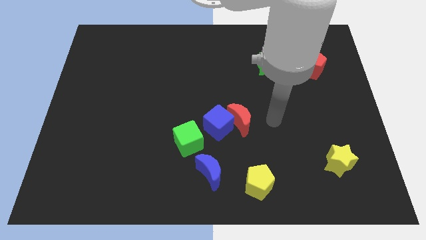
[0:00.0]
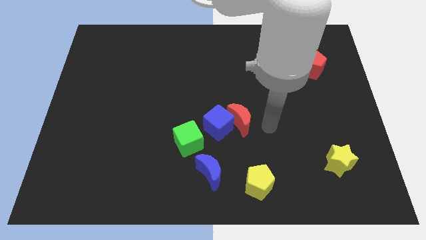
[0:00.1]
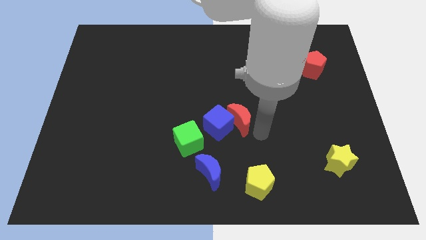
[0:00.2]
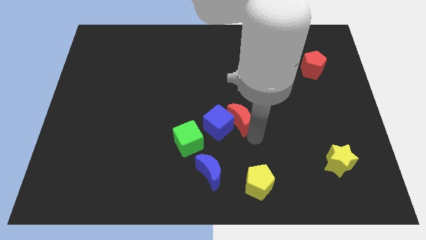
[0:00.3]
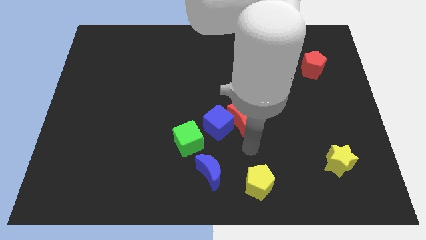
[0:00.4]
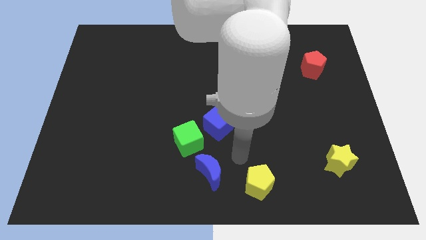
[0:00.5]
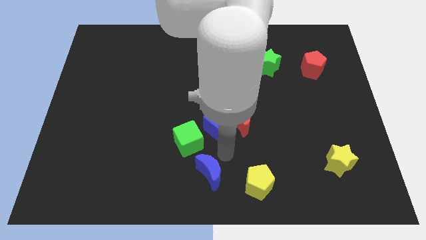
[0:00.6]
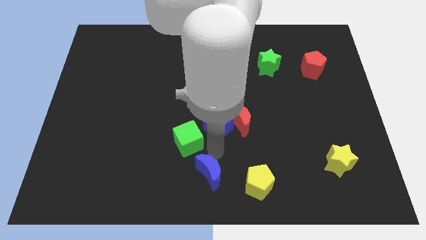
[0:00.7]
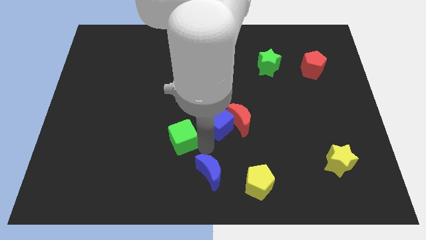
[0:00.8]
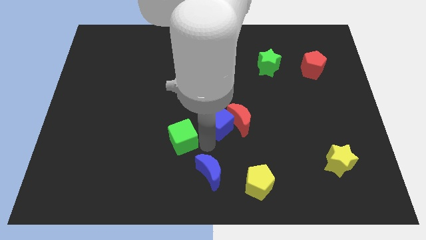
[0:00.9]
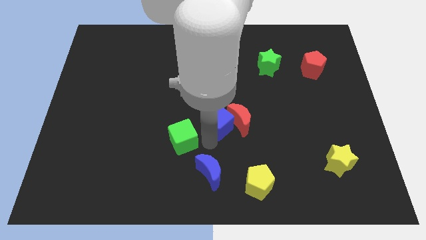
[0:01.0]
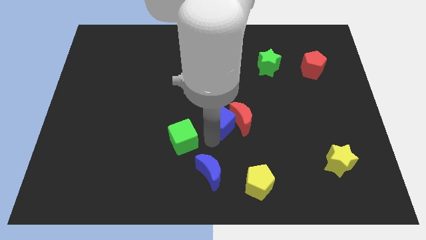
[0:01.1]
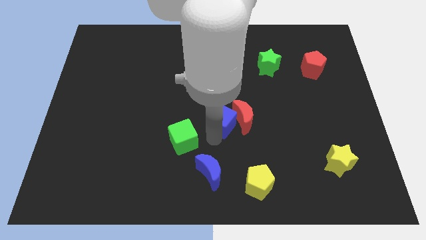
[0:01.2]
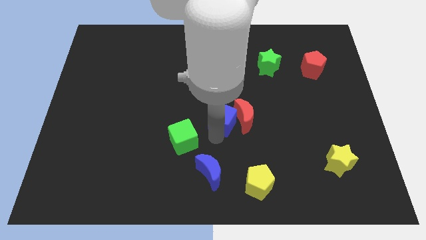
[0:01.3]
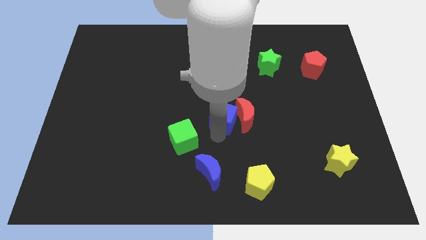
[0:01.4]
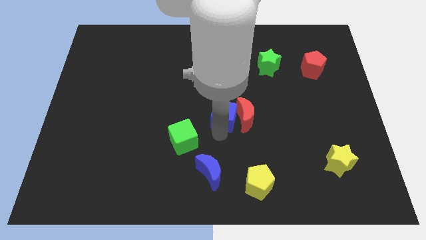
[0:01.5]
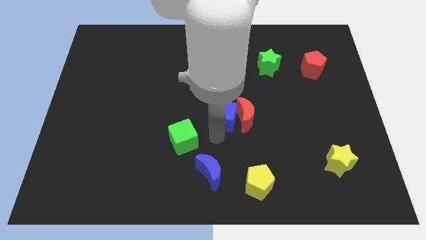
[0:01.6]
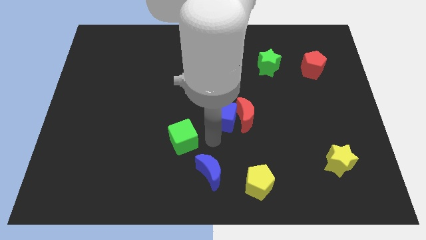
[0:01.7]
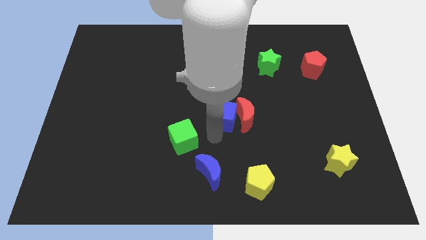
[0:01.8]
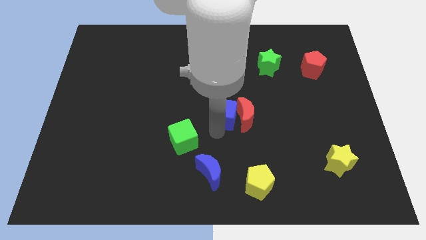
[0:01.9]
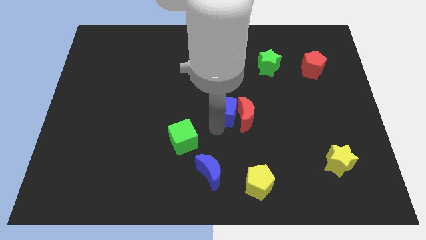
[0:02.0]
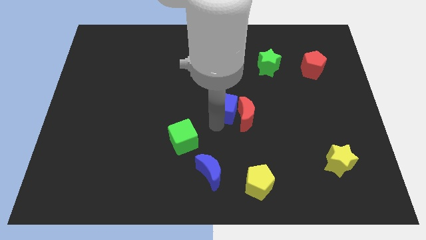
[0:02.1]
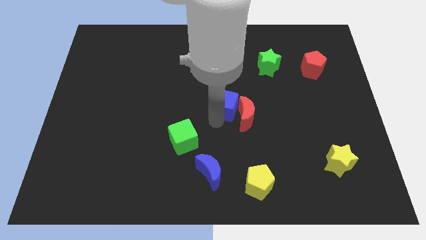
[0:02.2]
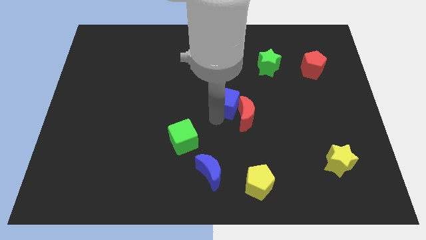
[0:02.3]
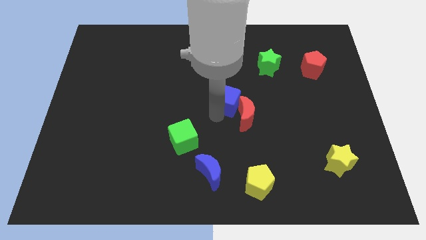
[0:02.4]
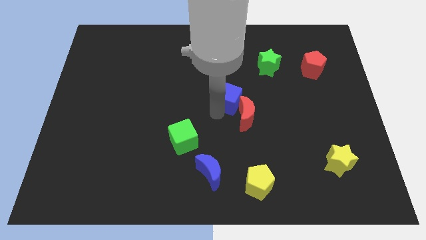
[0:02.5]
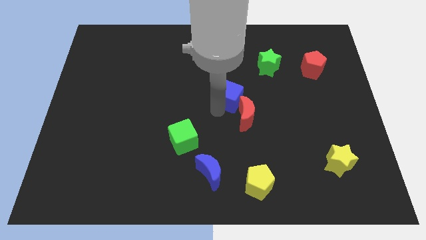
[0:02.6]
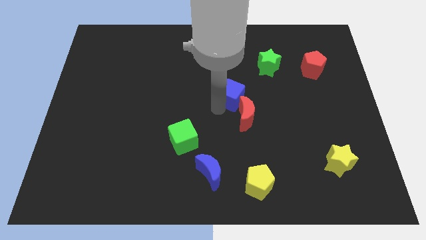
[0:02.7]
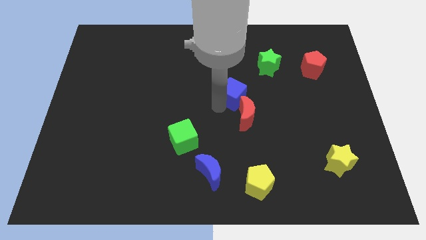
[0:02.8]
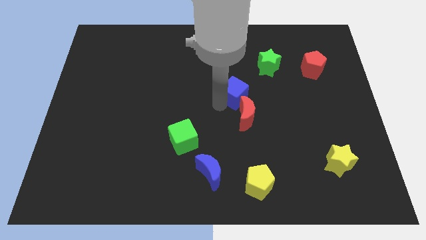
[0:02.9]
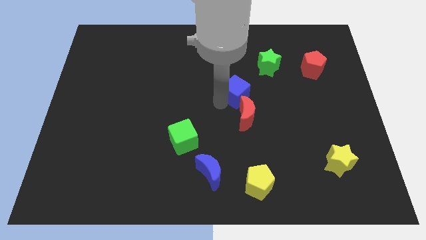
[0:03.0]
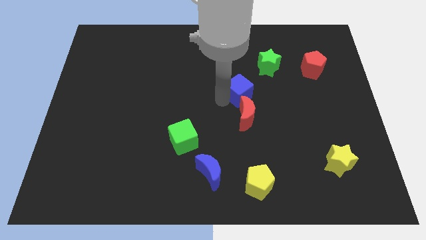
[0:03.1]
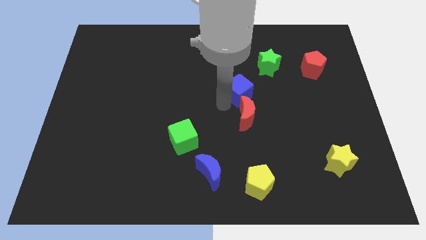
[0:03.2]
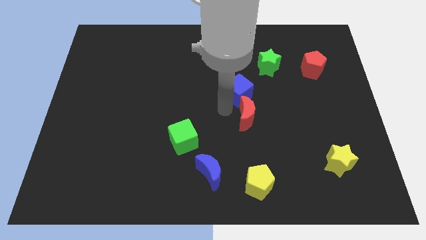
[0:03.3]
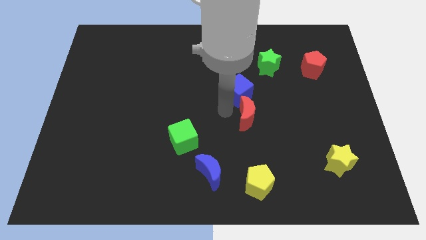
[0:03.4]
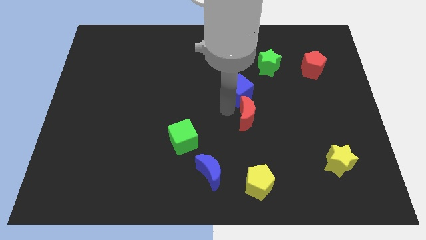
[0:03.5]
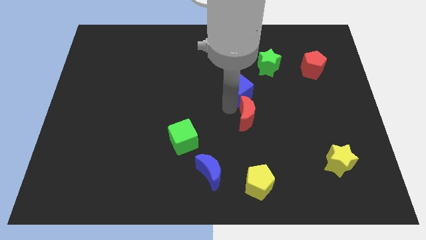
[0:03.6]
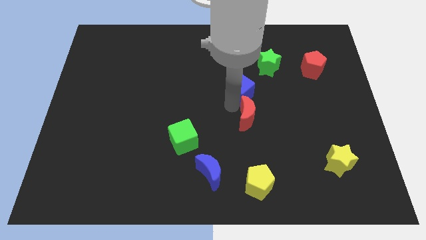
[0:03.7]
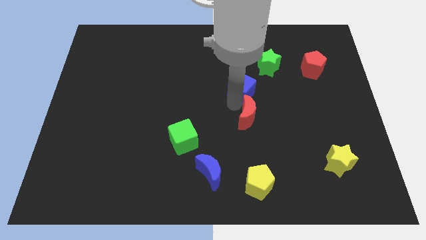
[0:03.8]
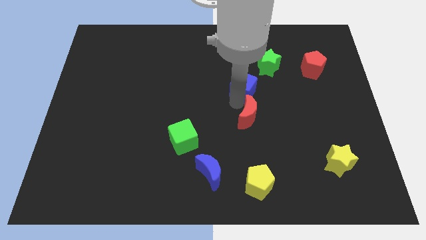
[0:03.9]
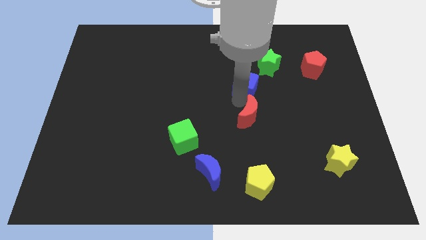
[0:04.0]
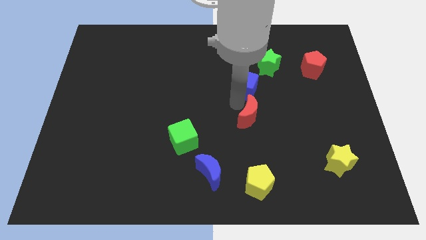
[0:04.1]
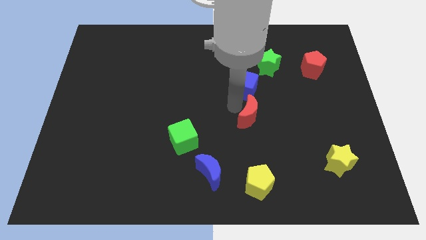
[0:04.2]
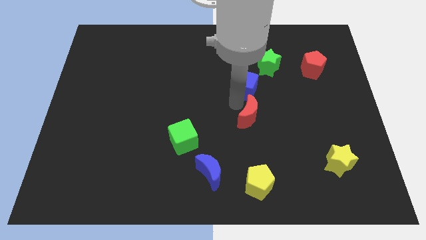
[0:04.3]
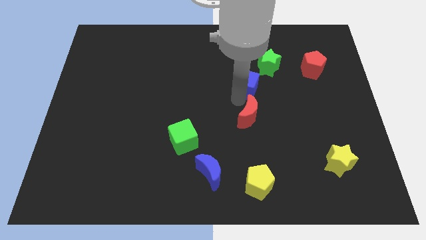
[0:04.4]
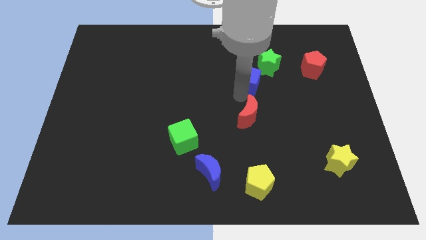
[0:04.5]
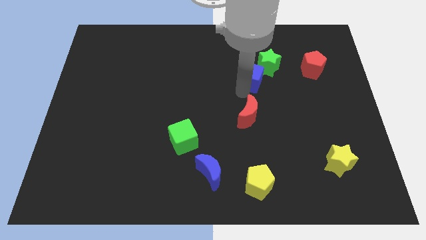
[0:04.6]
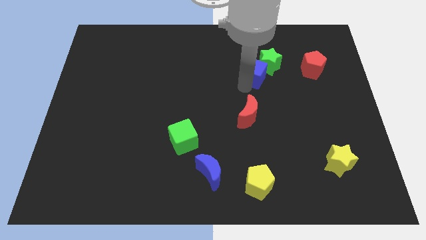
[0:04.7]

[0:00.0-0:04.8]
move the blue cube next to the green star

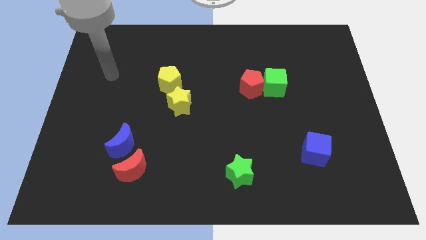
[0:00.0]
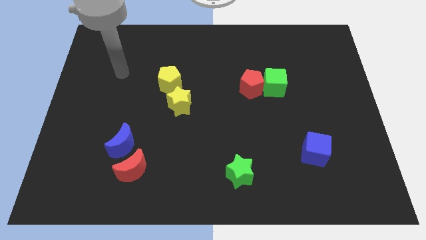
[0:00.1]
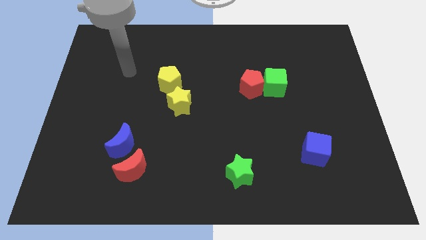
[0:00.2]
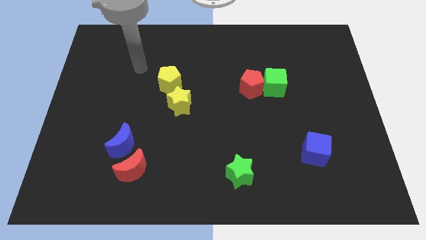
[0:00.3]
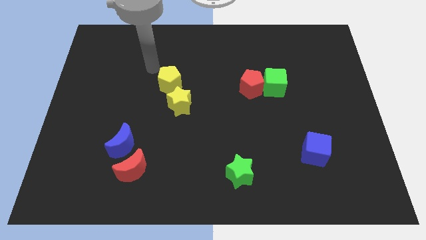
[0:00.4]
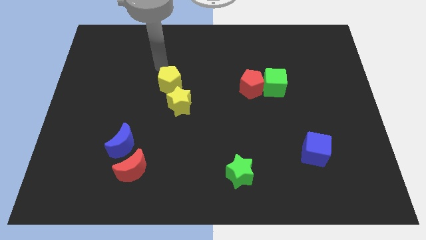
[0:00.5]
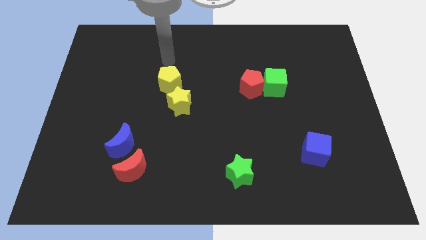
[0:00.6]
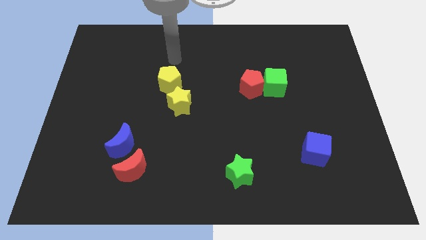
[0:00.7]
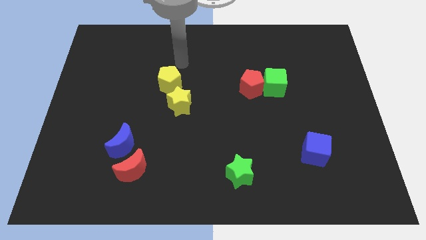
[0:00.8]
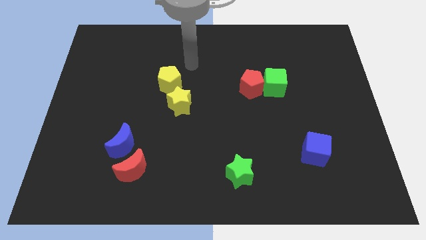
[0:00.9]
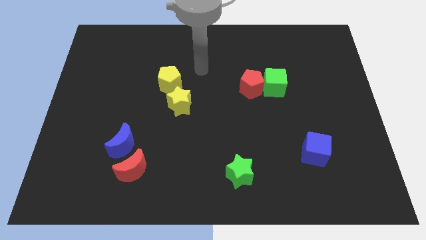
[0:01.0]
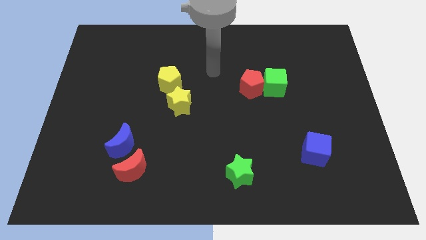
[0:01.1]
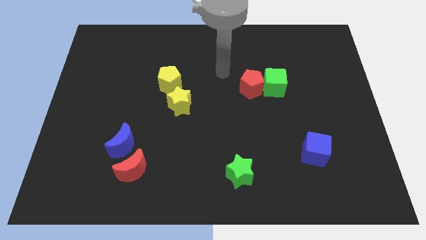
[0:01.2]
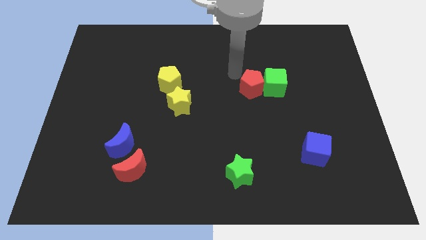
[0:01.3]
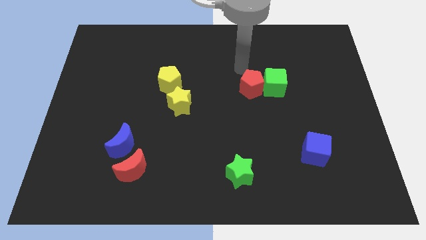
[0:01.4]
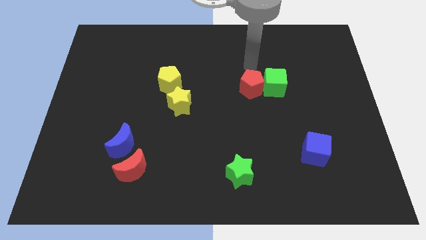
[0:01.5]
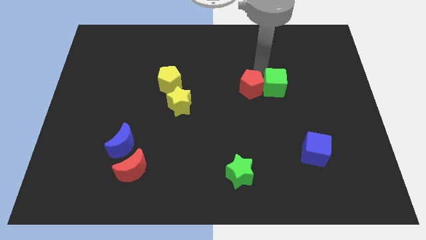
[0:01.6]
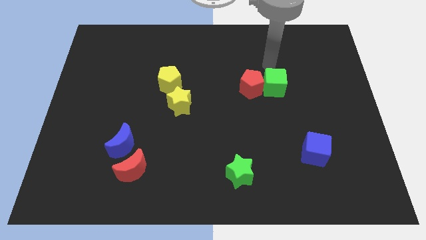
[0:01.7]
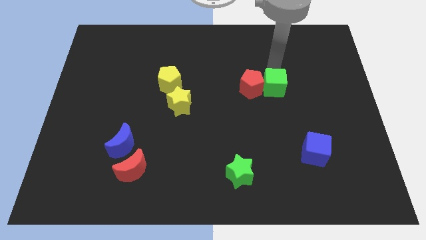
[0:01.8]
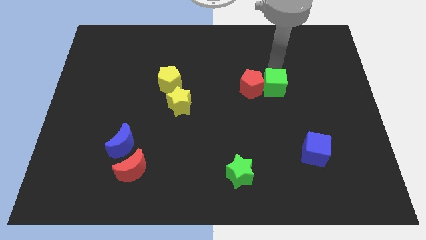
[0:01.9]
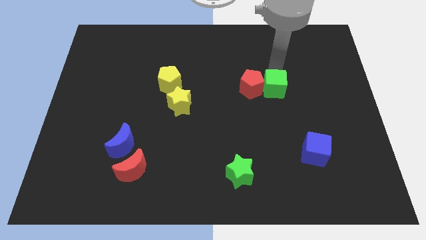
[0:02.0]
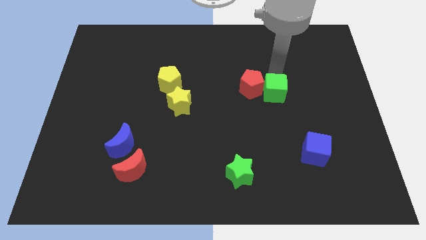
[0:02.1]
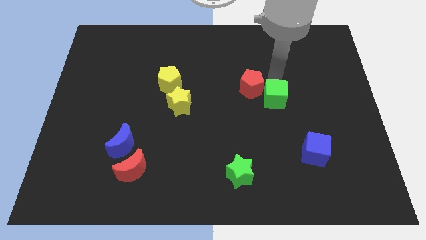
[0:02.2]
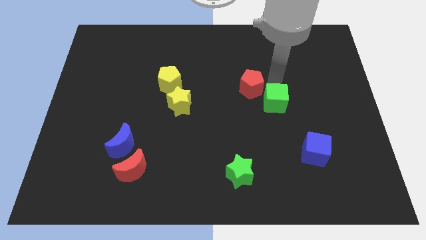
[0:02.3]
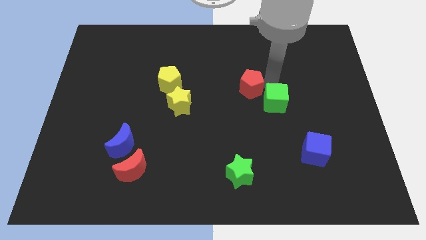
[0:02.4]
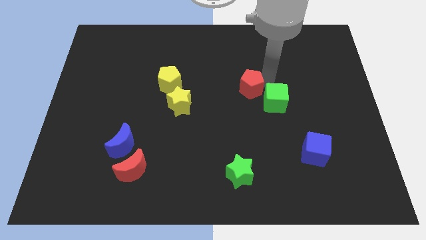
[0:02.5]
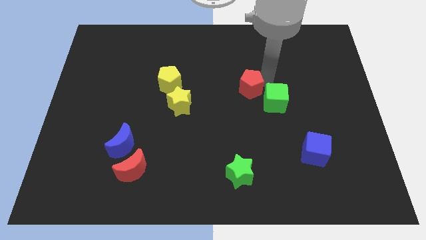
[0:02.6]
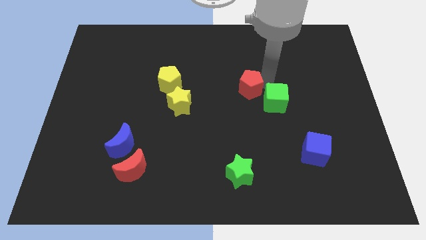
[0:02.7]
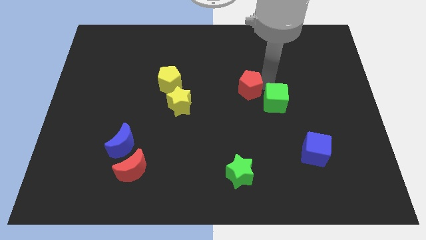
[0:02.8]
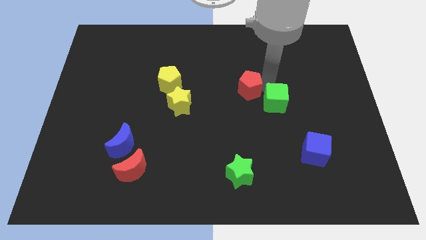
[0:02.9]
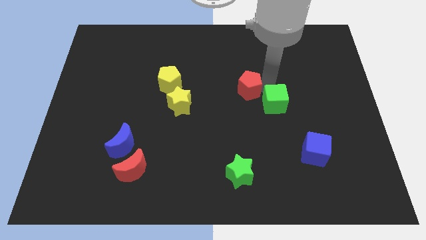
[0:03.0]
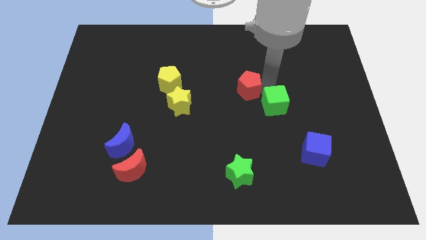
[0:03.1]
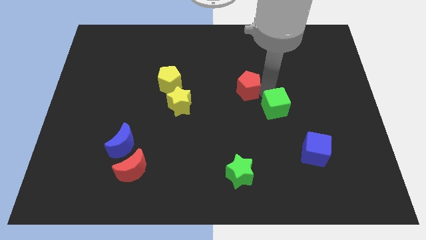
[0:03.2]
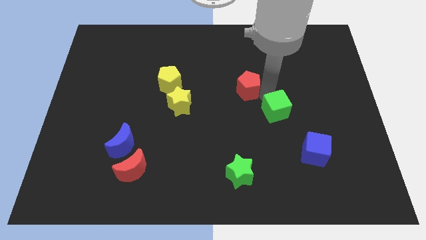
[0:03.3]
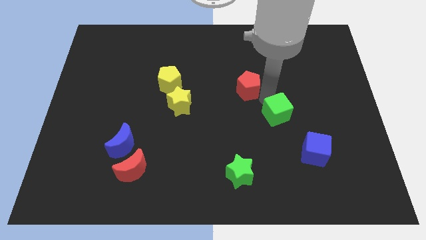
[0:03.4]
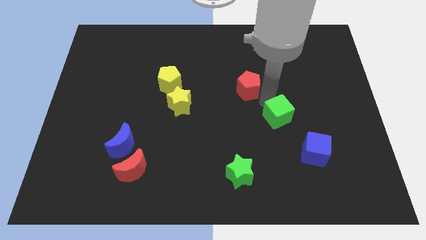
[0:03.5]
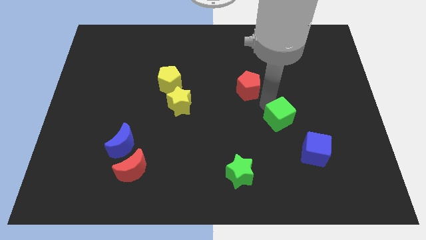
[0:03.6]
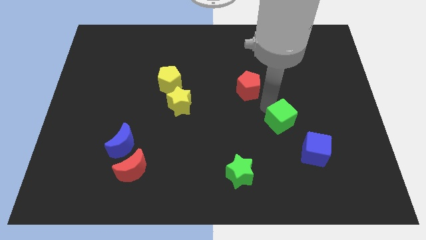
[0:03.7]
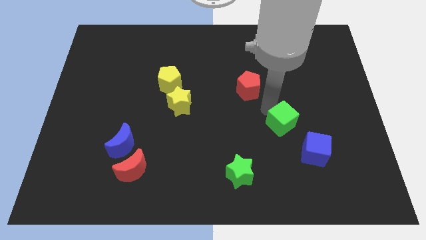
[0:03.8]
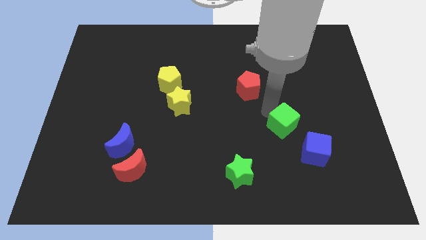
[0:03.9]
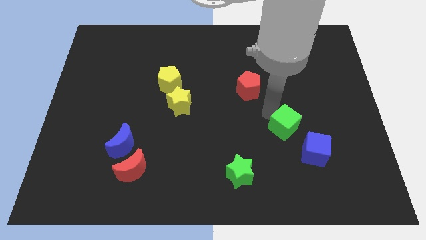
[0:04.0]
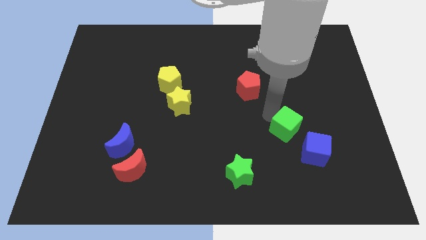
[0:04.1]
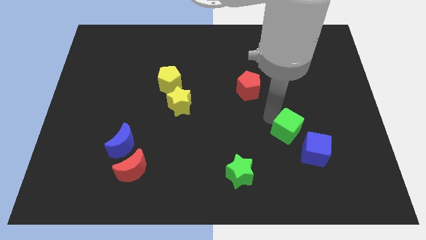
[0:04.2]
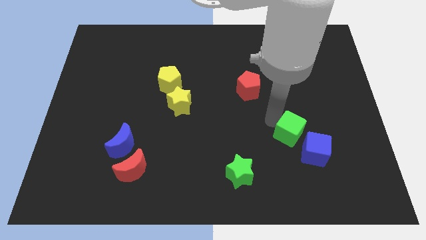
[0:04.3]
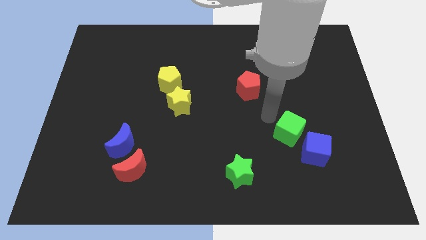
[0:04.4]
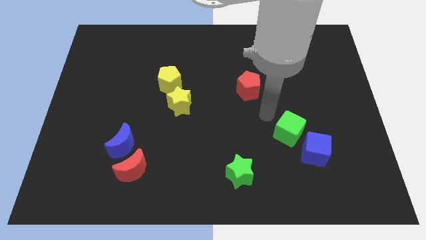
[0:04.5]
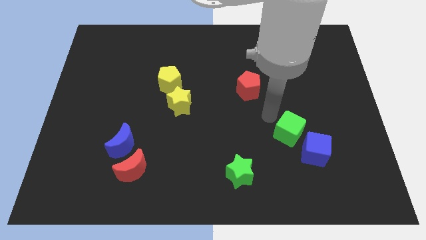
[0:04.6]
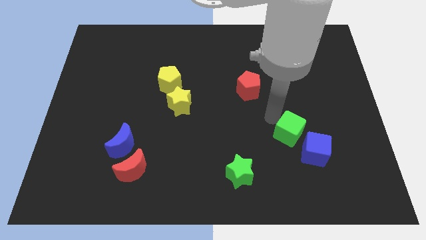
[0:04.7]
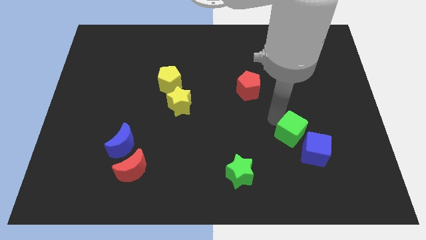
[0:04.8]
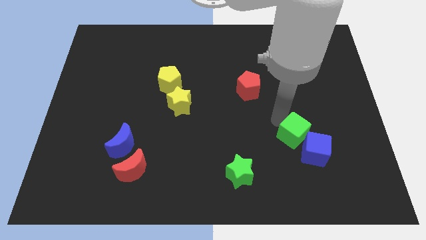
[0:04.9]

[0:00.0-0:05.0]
put the green cube next to the blue cube
